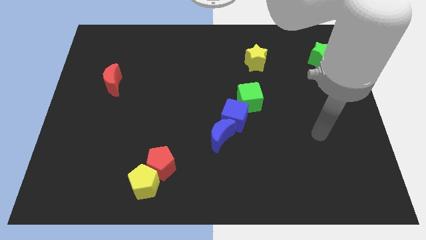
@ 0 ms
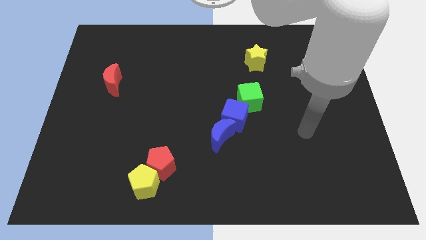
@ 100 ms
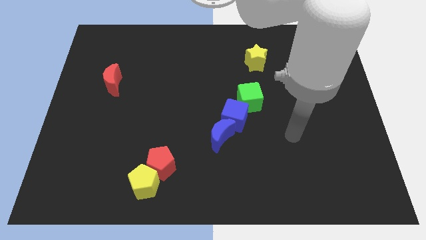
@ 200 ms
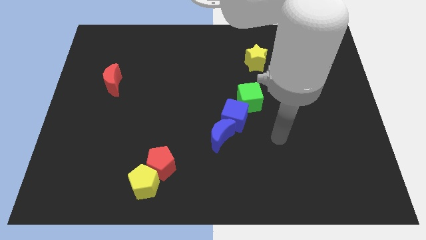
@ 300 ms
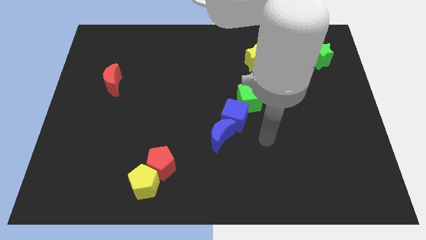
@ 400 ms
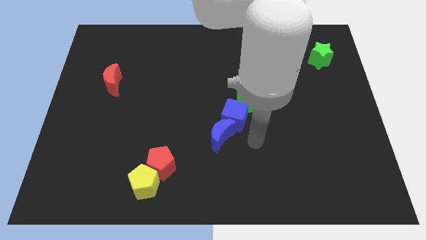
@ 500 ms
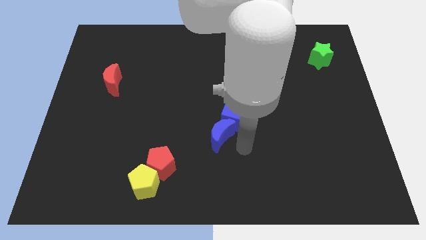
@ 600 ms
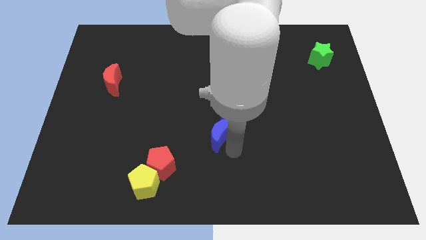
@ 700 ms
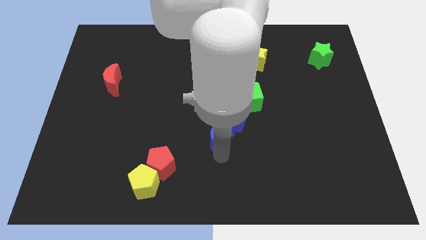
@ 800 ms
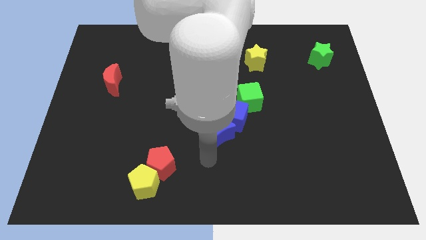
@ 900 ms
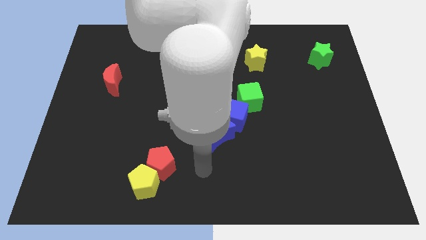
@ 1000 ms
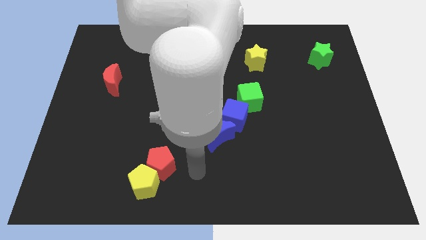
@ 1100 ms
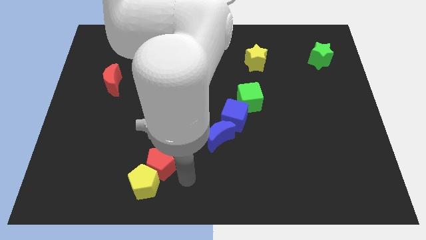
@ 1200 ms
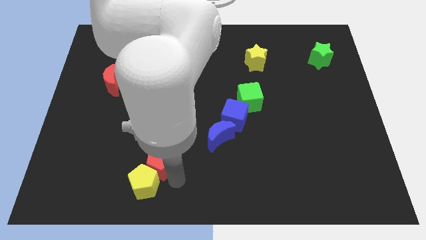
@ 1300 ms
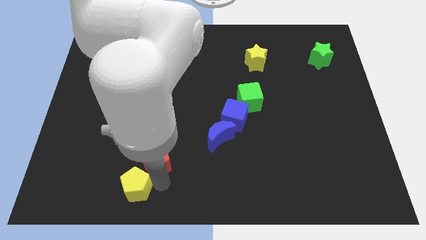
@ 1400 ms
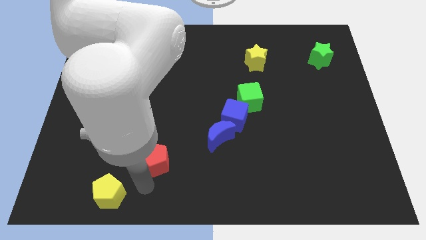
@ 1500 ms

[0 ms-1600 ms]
pull the red pentagon apart from the yellow pentagon

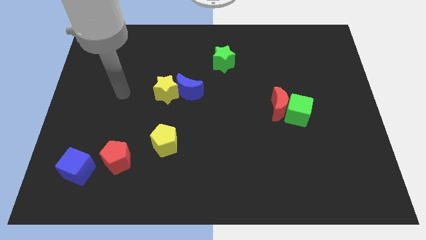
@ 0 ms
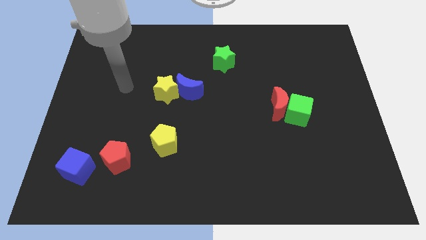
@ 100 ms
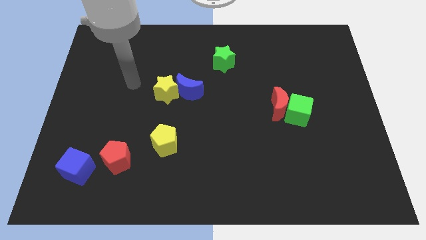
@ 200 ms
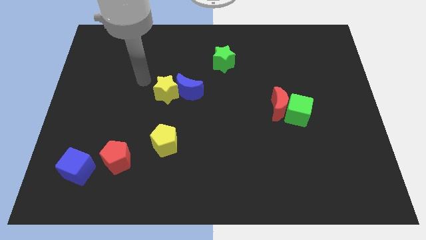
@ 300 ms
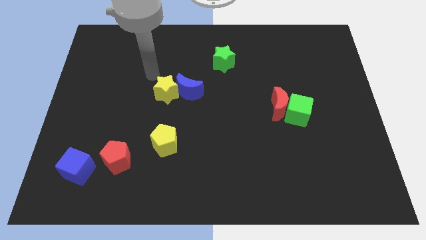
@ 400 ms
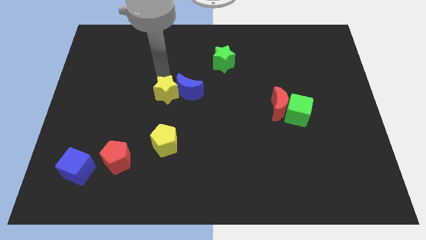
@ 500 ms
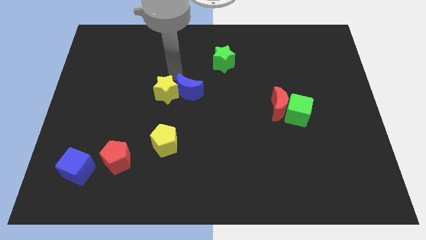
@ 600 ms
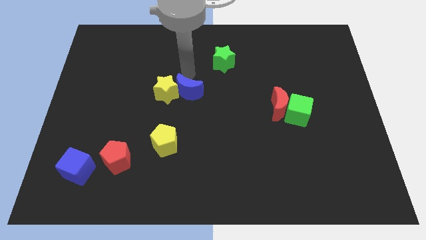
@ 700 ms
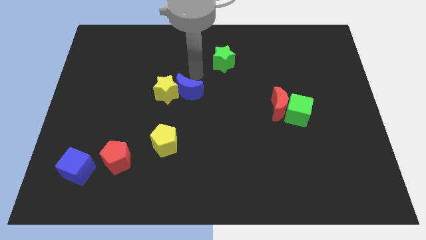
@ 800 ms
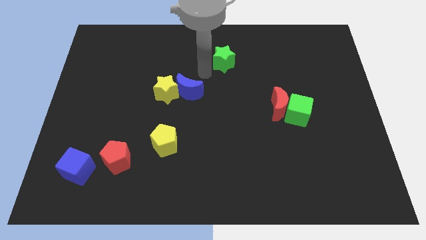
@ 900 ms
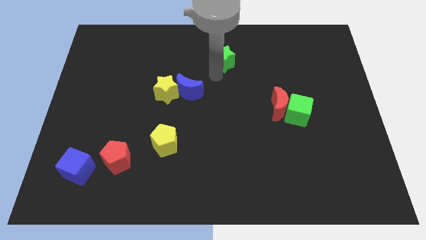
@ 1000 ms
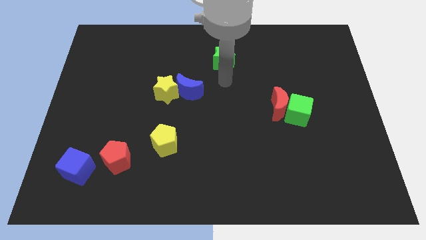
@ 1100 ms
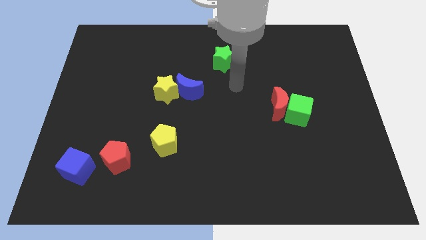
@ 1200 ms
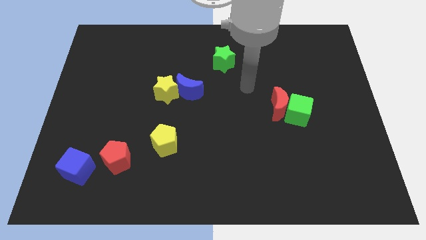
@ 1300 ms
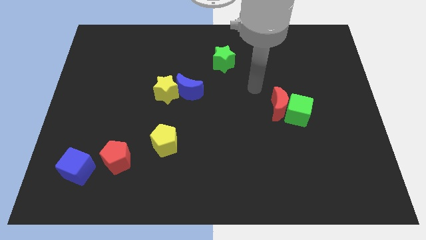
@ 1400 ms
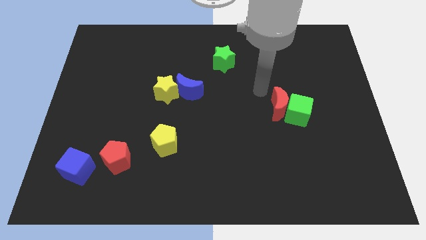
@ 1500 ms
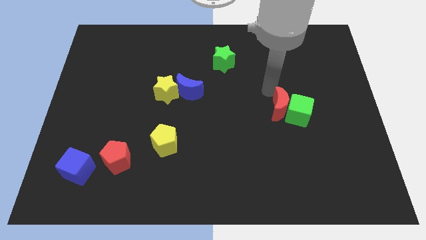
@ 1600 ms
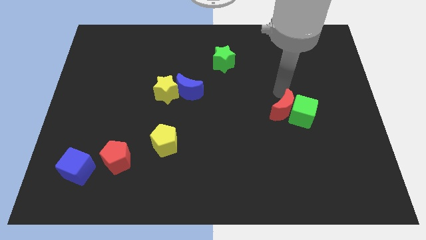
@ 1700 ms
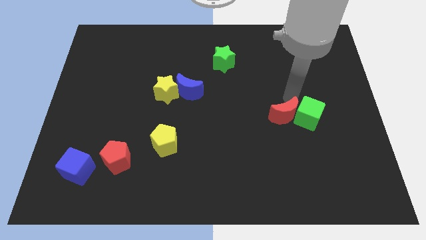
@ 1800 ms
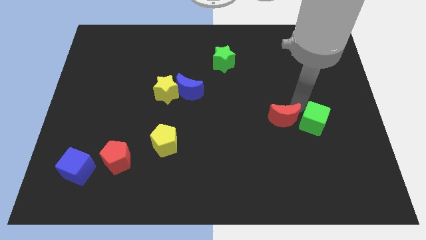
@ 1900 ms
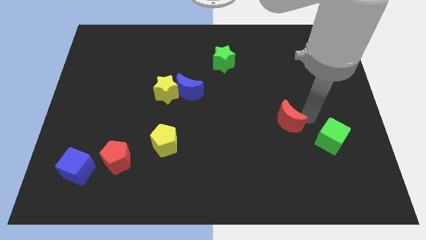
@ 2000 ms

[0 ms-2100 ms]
move the red moon away from the green cube

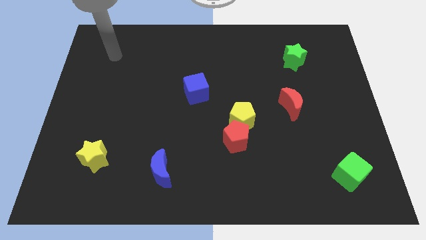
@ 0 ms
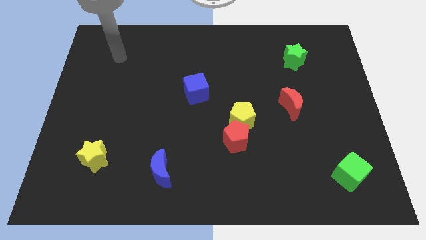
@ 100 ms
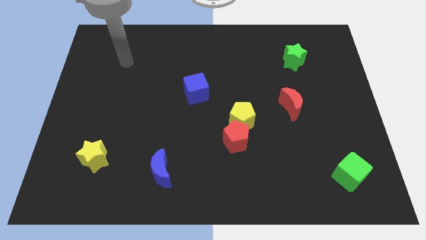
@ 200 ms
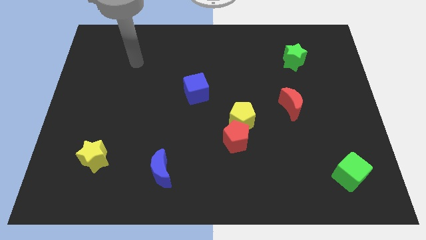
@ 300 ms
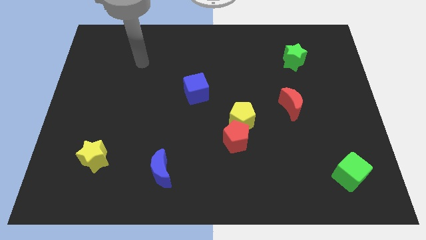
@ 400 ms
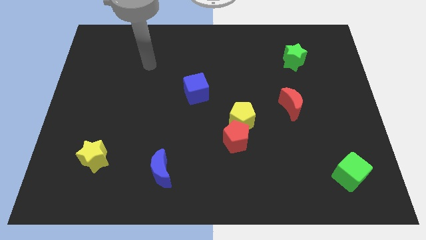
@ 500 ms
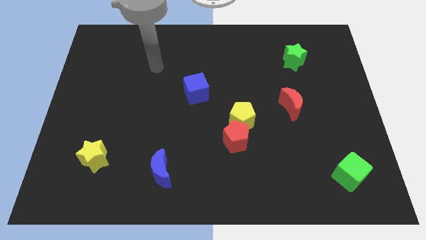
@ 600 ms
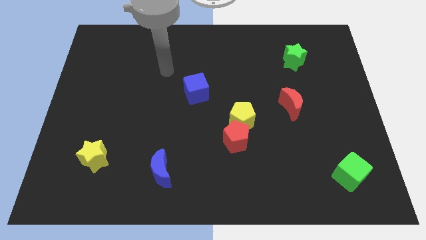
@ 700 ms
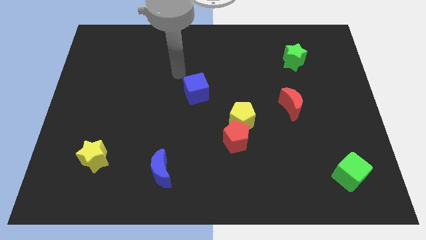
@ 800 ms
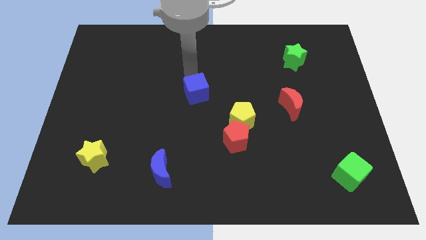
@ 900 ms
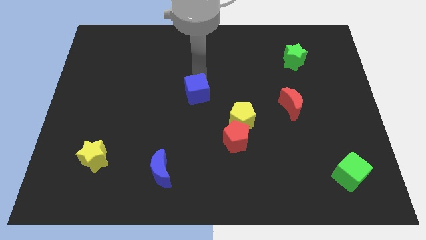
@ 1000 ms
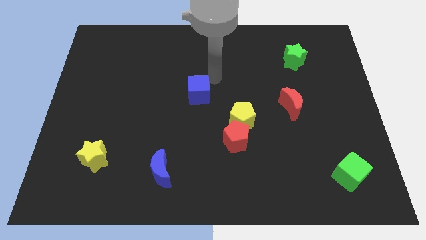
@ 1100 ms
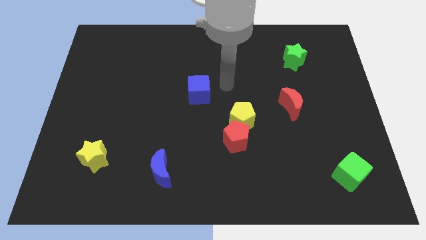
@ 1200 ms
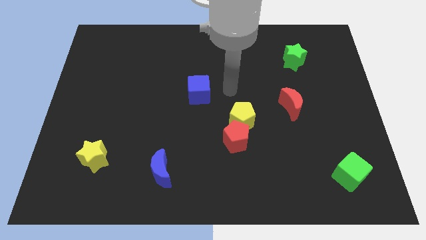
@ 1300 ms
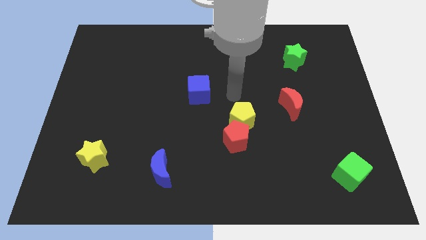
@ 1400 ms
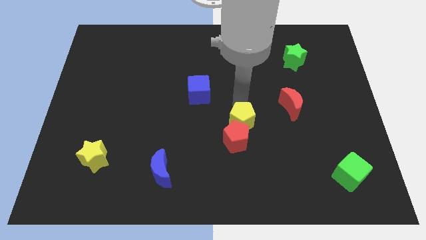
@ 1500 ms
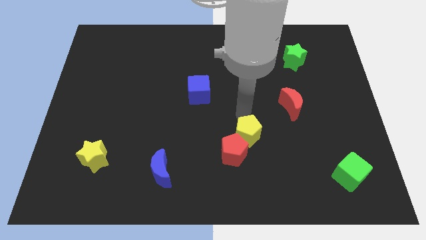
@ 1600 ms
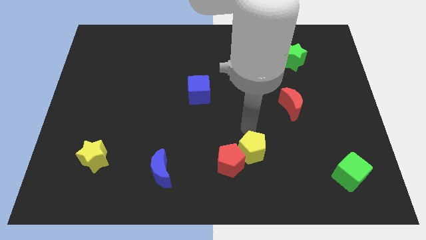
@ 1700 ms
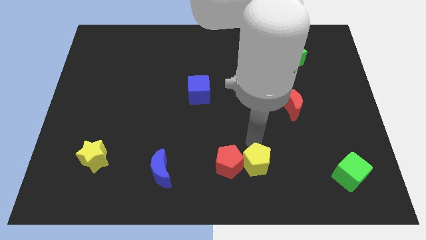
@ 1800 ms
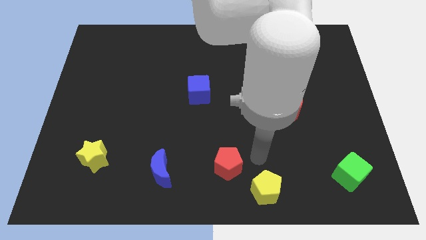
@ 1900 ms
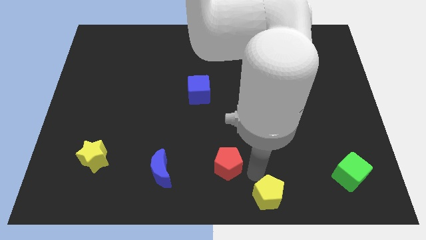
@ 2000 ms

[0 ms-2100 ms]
separate the red pentagon from the yellow pentagon

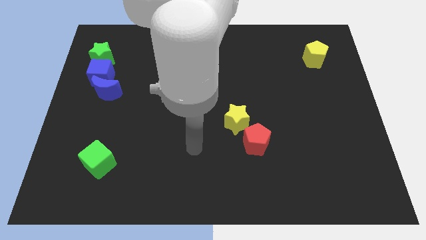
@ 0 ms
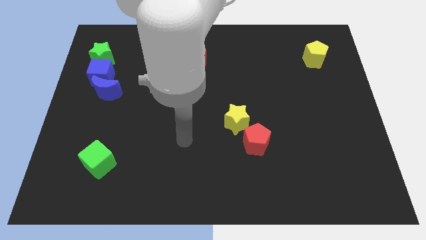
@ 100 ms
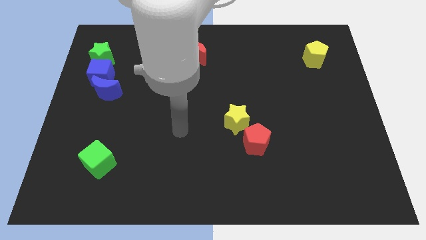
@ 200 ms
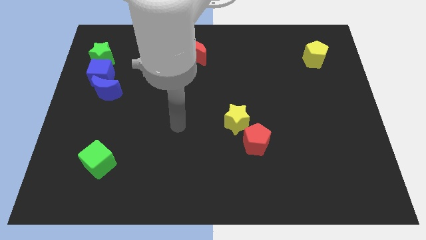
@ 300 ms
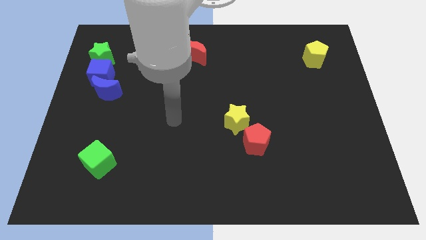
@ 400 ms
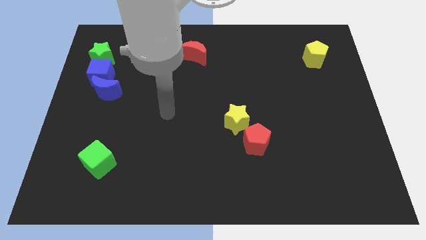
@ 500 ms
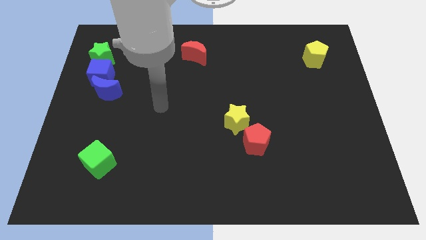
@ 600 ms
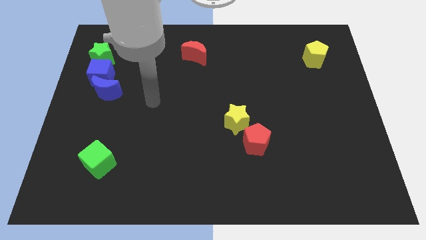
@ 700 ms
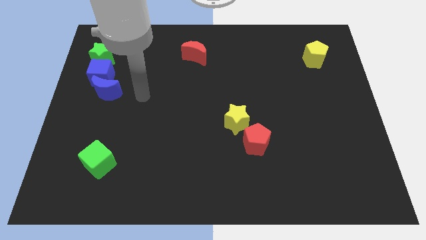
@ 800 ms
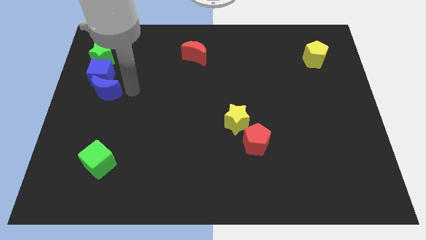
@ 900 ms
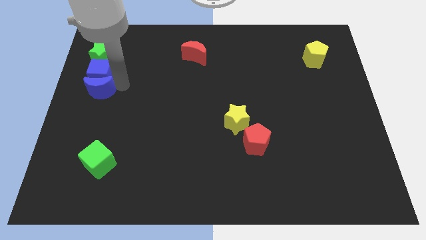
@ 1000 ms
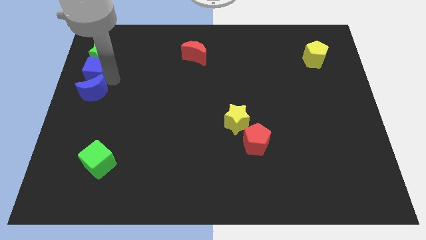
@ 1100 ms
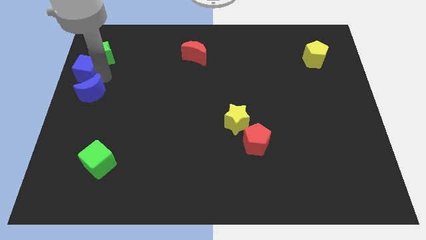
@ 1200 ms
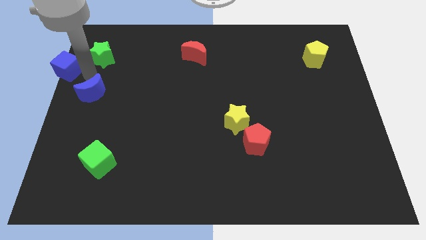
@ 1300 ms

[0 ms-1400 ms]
separate the blue moon from the blue cube

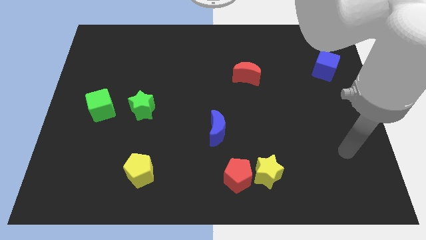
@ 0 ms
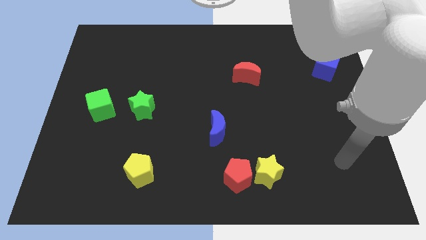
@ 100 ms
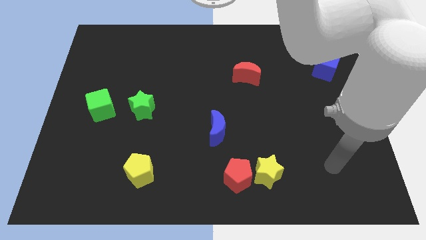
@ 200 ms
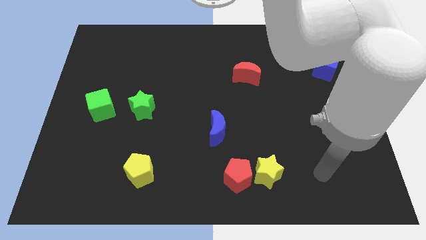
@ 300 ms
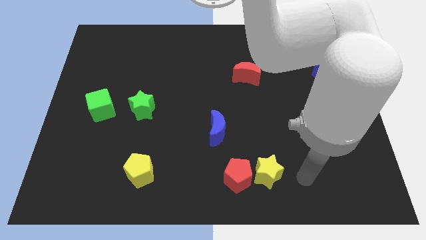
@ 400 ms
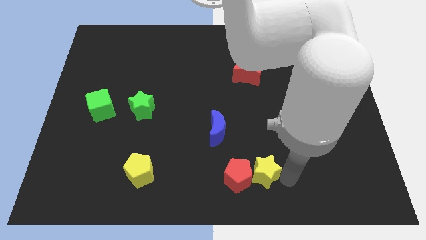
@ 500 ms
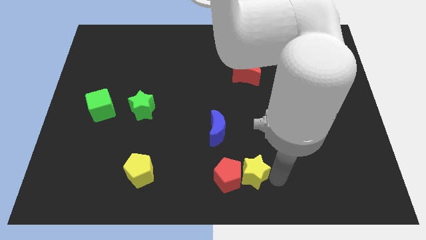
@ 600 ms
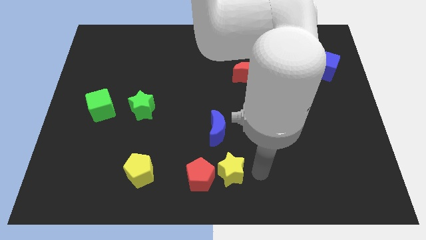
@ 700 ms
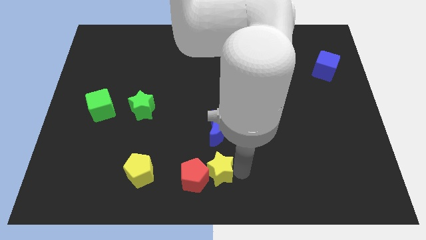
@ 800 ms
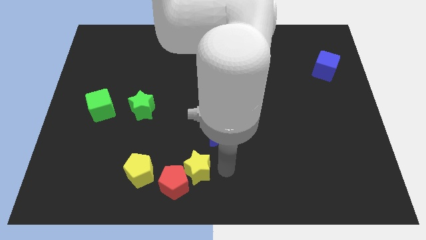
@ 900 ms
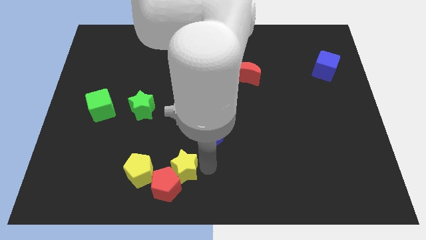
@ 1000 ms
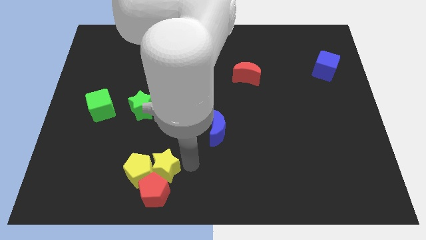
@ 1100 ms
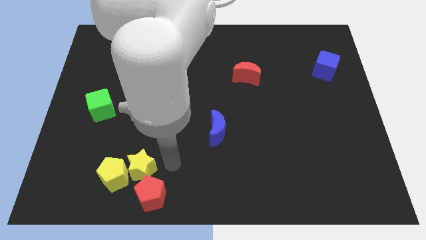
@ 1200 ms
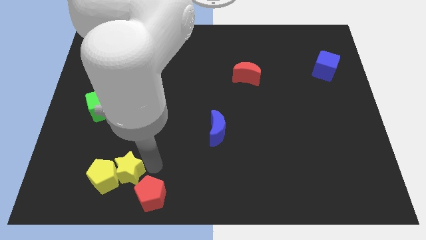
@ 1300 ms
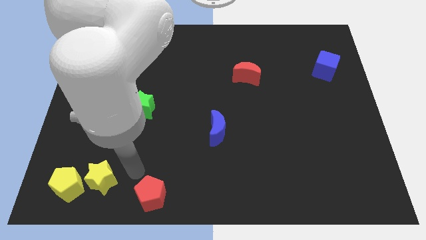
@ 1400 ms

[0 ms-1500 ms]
pull the red pentagon apart from the yellow star

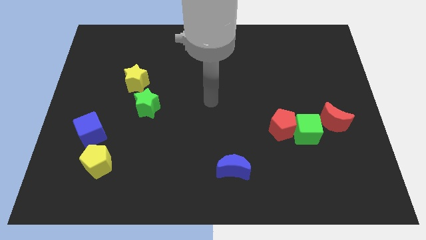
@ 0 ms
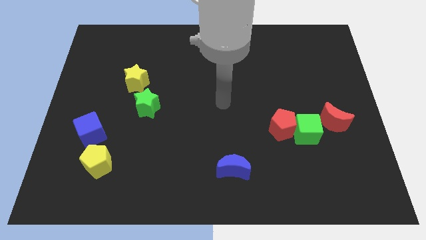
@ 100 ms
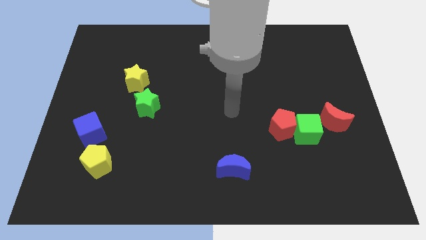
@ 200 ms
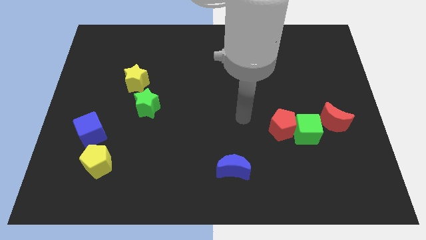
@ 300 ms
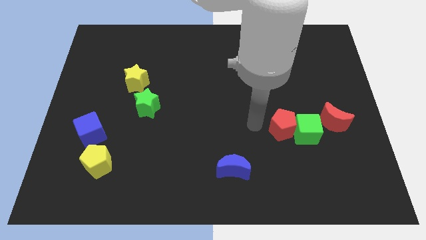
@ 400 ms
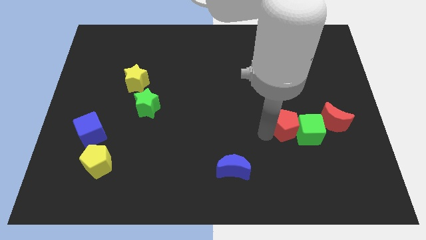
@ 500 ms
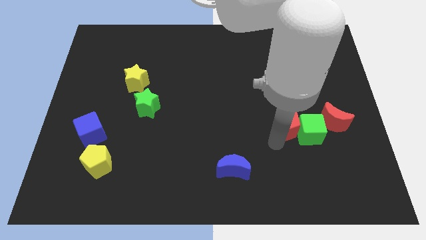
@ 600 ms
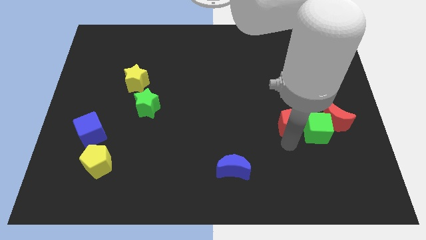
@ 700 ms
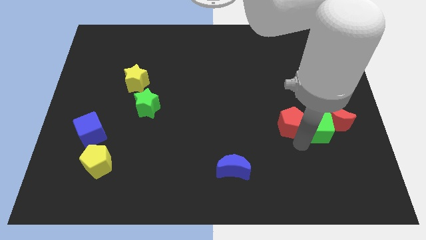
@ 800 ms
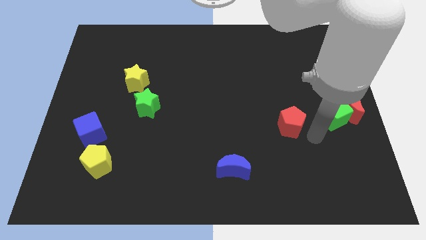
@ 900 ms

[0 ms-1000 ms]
pull the red pentagon apart from the green cube
